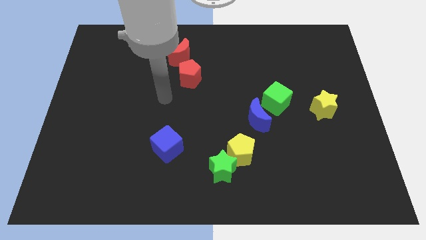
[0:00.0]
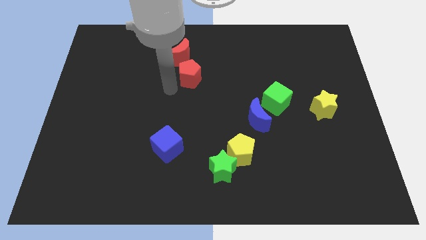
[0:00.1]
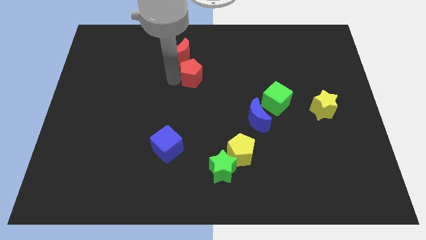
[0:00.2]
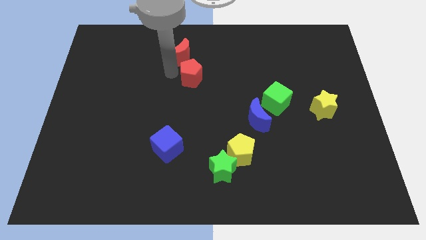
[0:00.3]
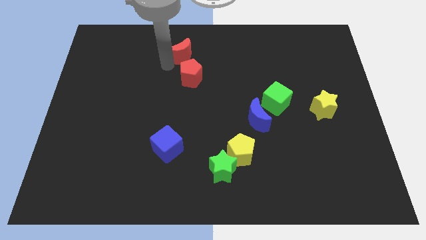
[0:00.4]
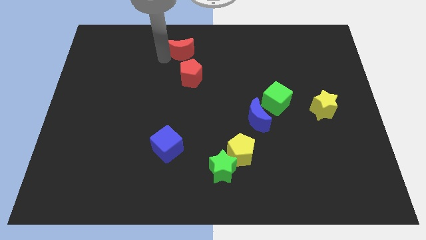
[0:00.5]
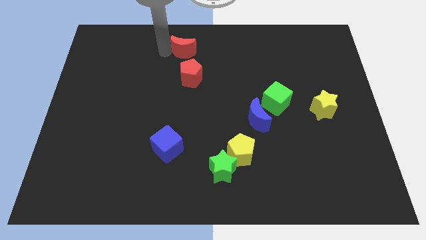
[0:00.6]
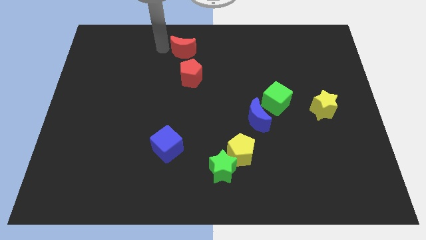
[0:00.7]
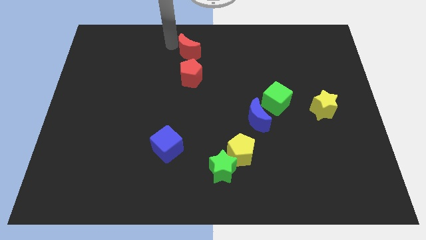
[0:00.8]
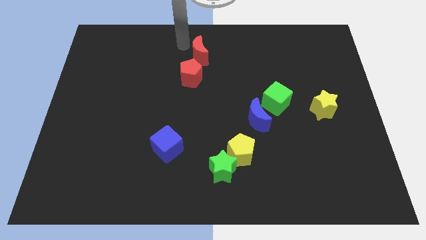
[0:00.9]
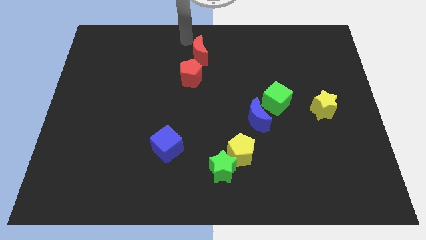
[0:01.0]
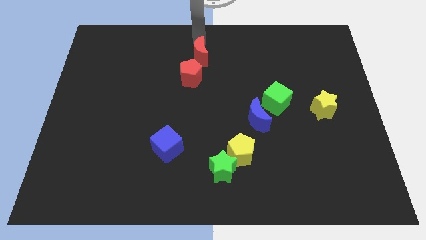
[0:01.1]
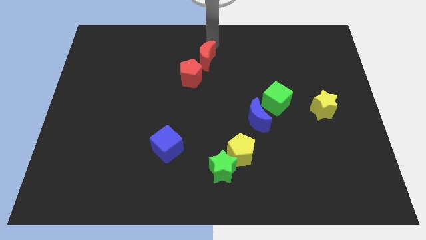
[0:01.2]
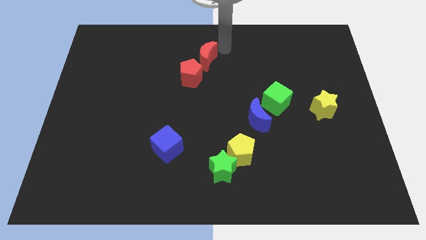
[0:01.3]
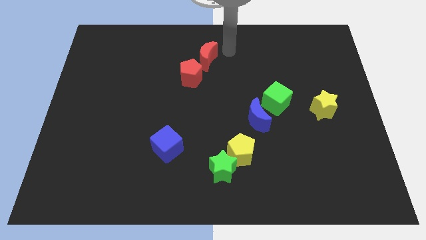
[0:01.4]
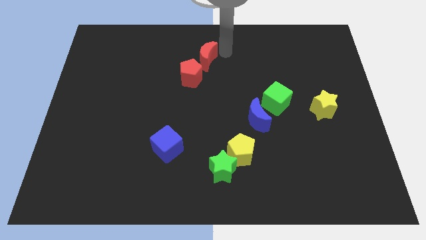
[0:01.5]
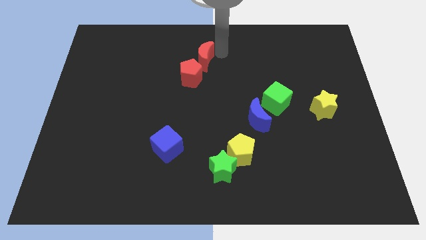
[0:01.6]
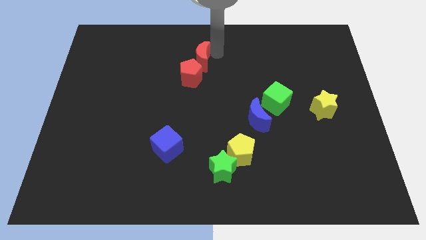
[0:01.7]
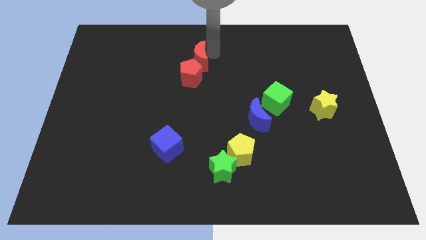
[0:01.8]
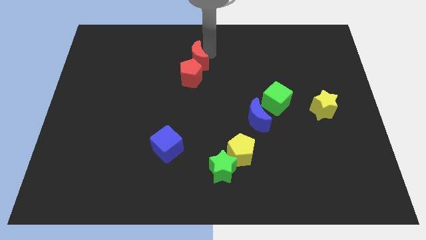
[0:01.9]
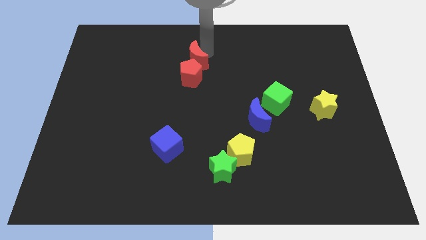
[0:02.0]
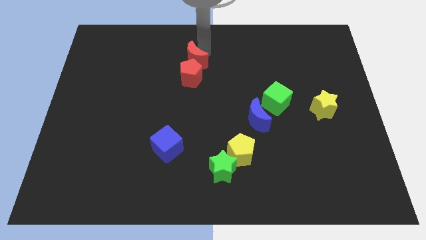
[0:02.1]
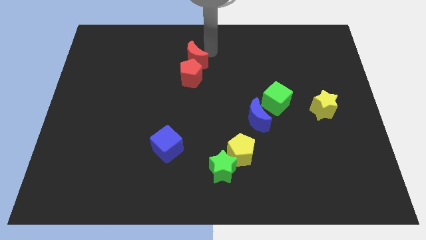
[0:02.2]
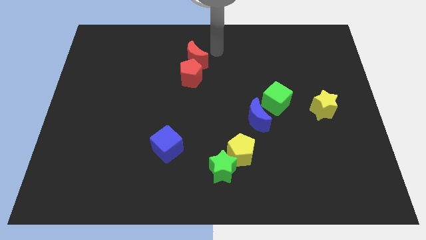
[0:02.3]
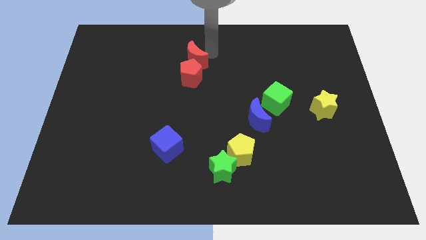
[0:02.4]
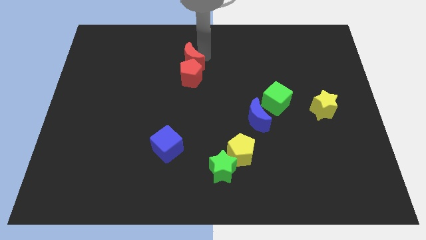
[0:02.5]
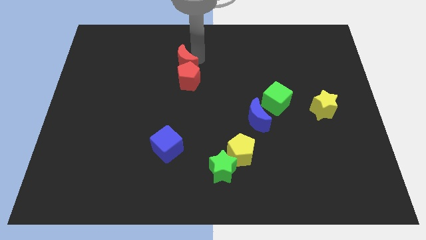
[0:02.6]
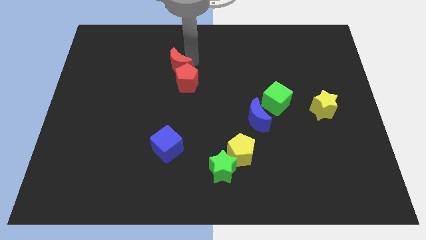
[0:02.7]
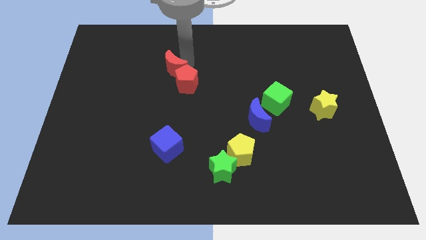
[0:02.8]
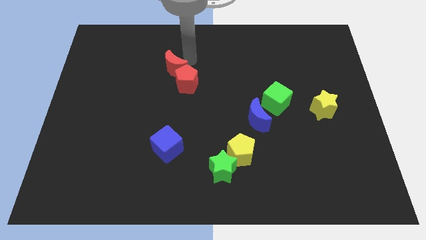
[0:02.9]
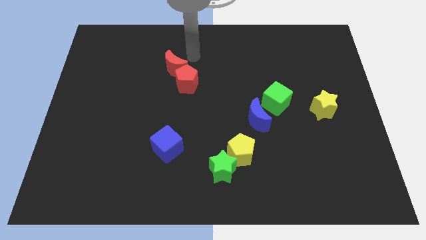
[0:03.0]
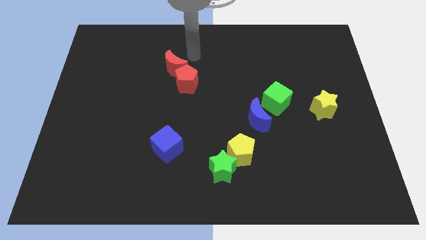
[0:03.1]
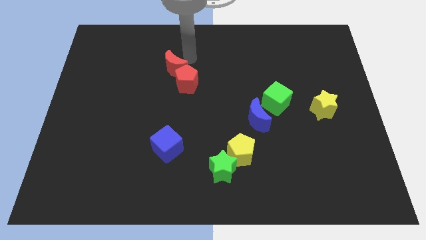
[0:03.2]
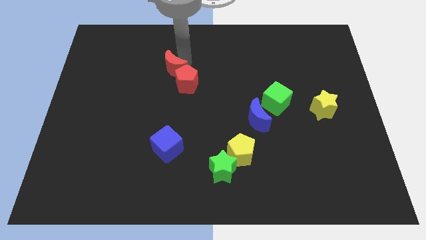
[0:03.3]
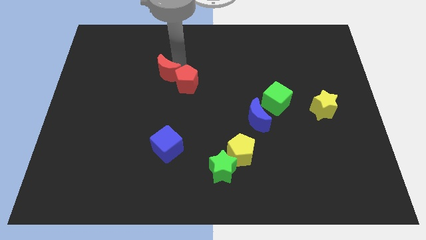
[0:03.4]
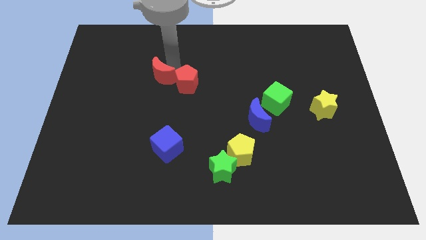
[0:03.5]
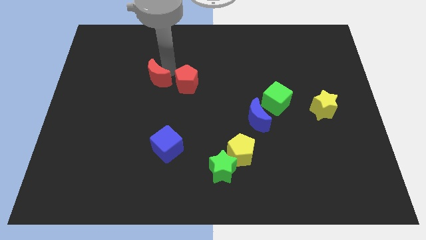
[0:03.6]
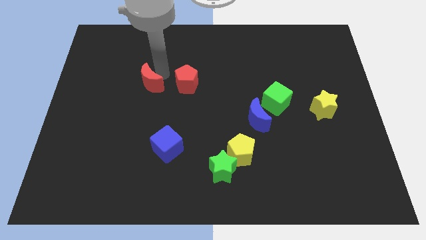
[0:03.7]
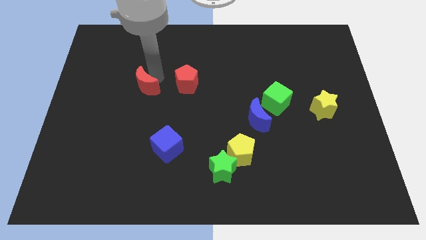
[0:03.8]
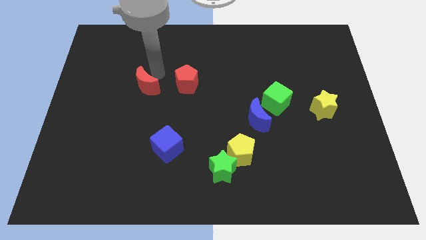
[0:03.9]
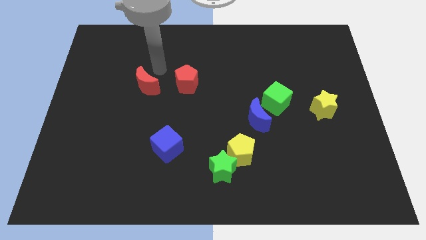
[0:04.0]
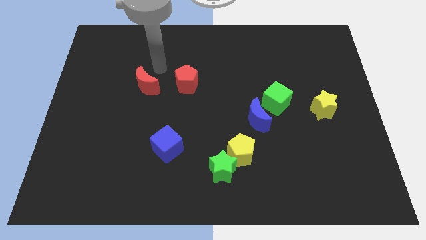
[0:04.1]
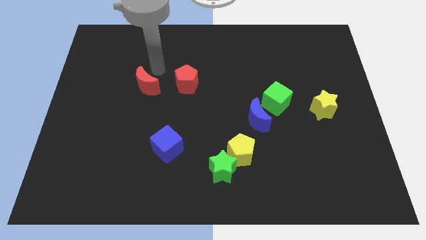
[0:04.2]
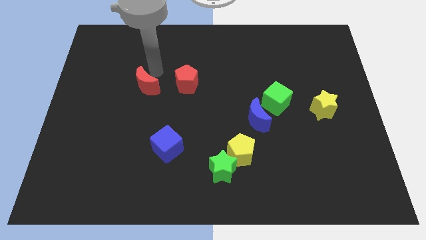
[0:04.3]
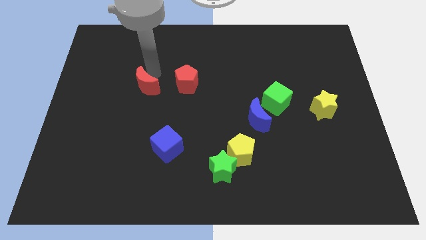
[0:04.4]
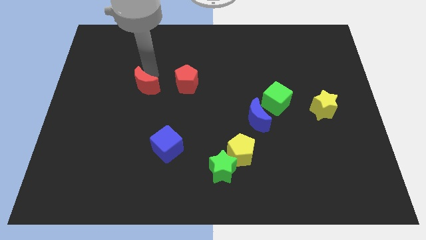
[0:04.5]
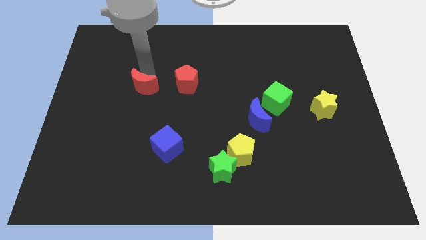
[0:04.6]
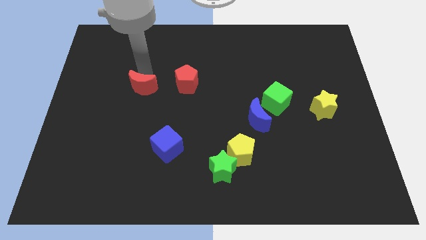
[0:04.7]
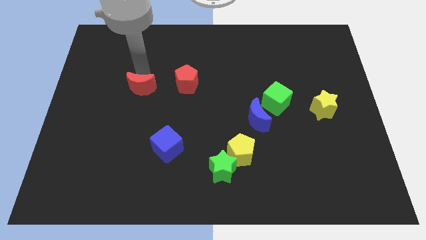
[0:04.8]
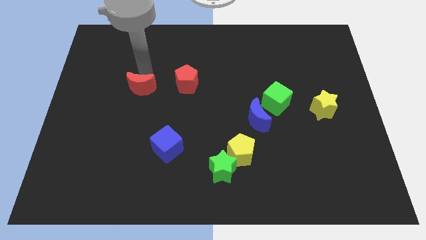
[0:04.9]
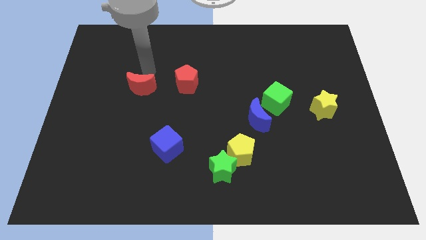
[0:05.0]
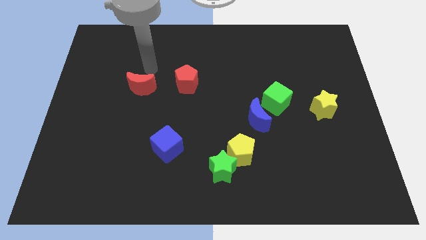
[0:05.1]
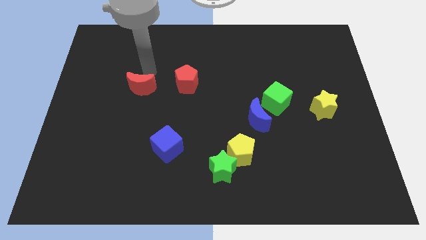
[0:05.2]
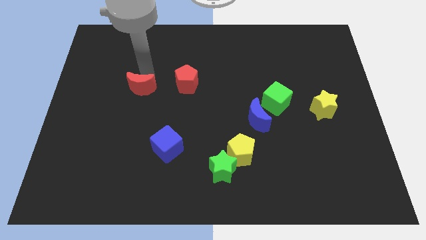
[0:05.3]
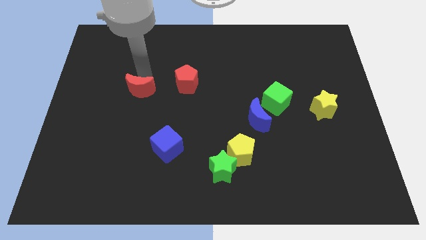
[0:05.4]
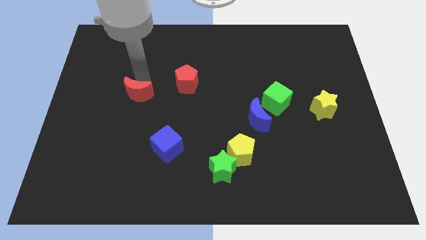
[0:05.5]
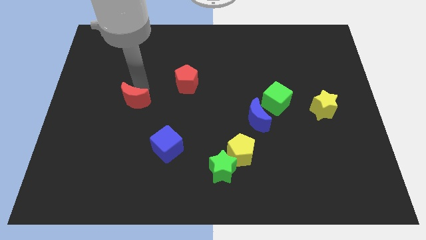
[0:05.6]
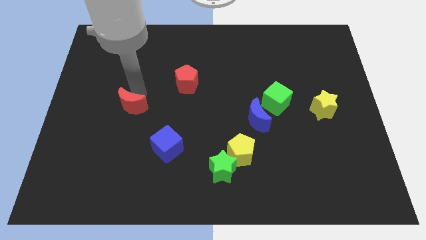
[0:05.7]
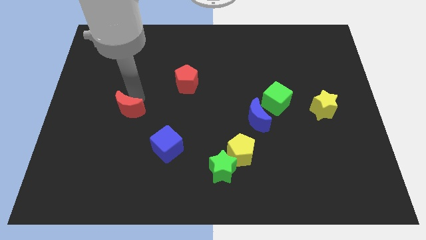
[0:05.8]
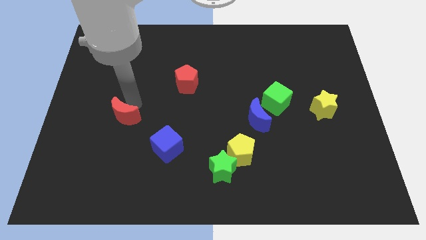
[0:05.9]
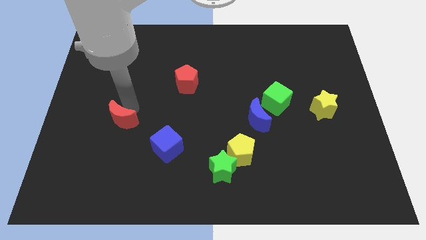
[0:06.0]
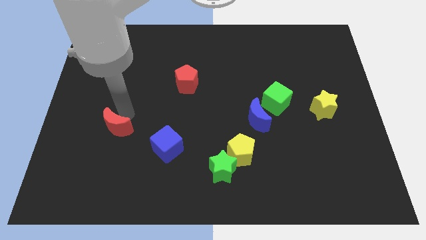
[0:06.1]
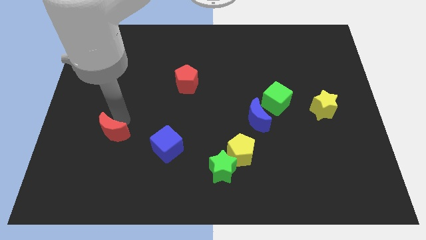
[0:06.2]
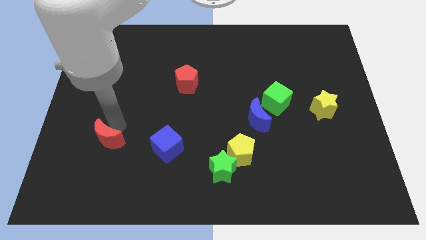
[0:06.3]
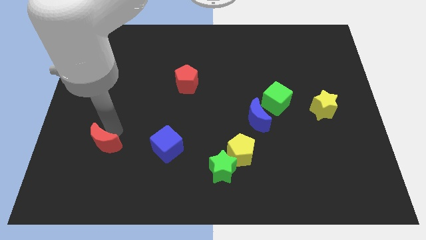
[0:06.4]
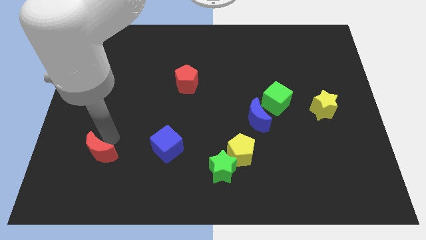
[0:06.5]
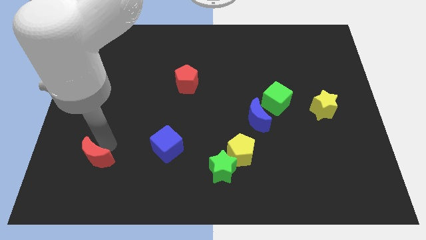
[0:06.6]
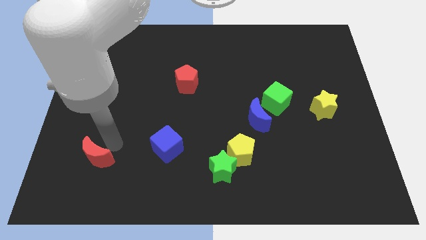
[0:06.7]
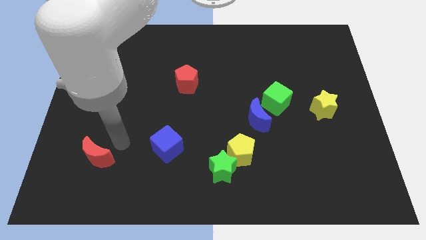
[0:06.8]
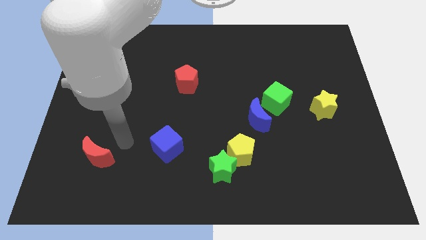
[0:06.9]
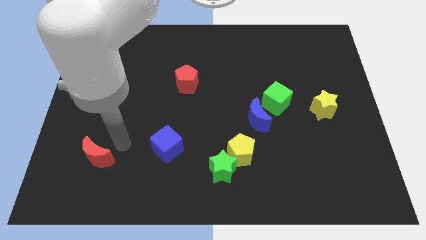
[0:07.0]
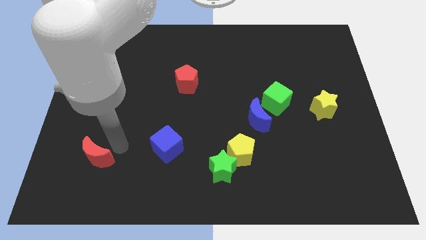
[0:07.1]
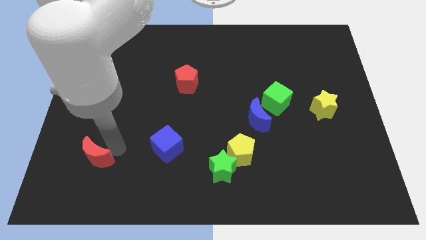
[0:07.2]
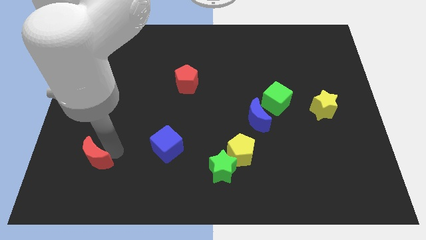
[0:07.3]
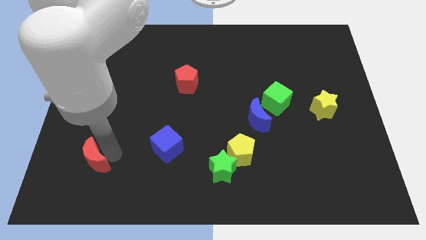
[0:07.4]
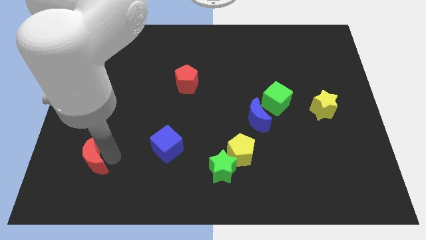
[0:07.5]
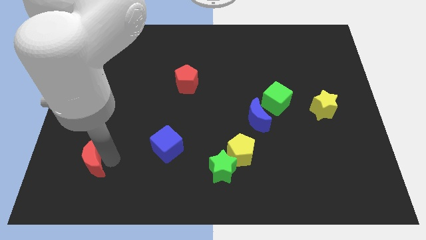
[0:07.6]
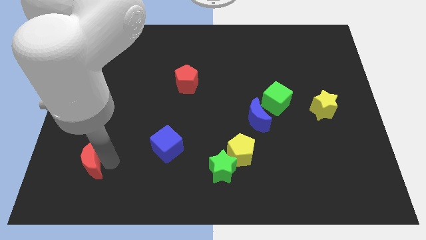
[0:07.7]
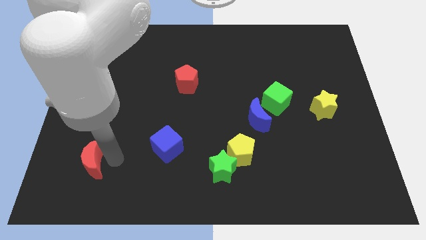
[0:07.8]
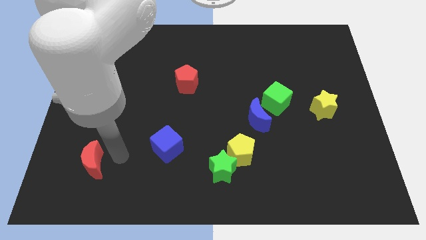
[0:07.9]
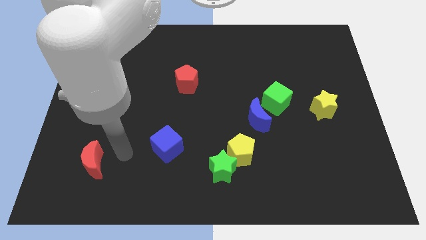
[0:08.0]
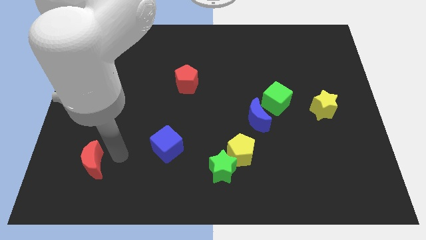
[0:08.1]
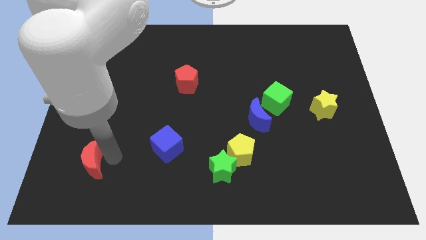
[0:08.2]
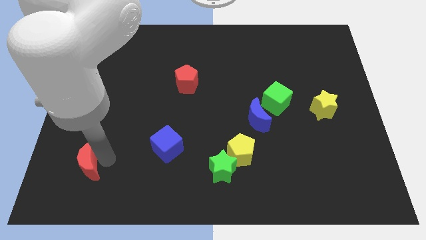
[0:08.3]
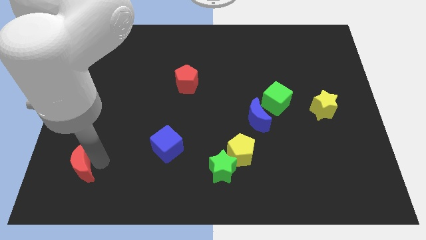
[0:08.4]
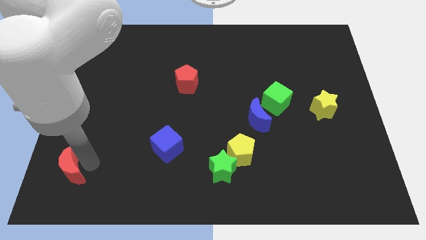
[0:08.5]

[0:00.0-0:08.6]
push the red moon to the bottom left of the board
